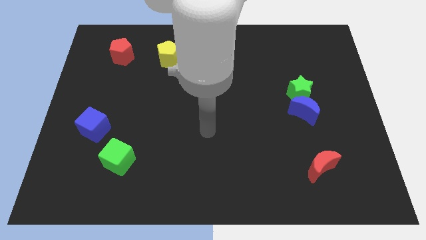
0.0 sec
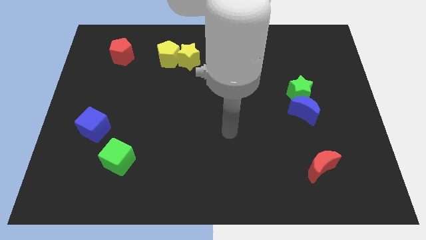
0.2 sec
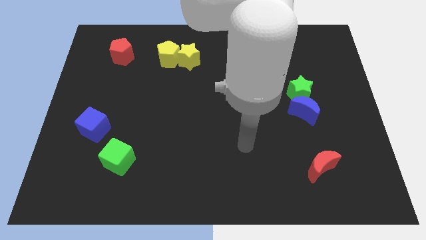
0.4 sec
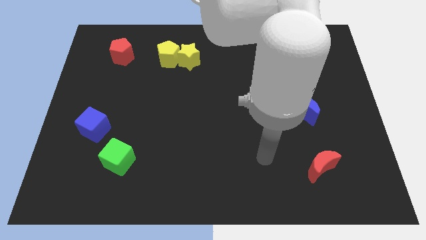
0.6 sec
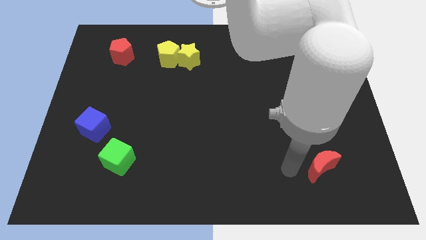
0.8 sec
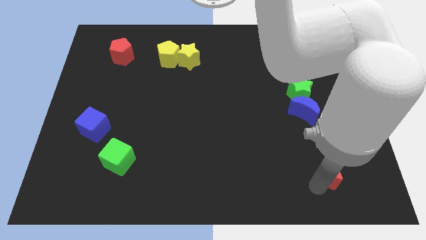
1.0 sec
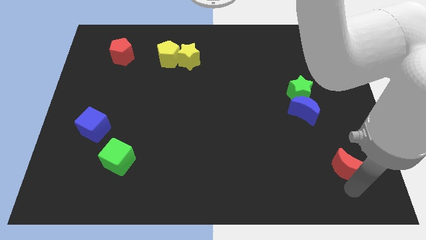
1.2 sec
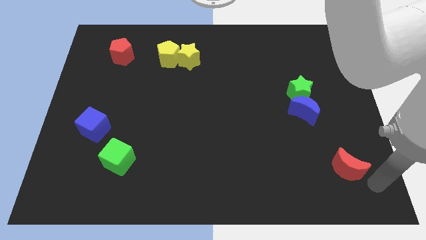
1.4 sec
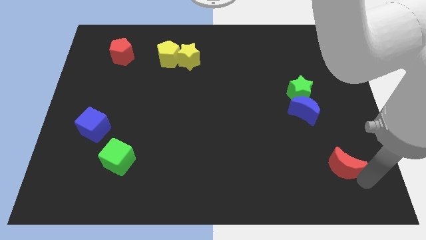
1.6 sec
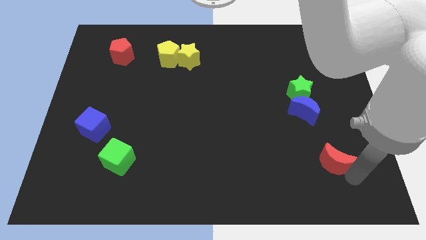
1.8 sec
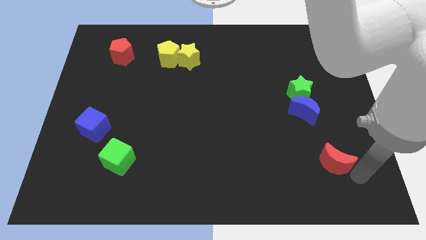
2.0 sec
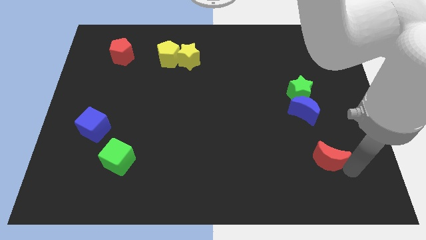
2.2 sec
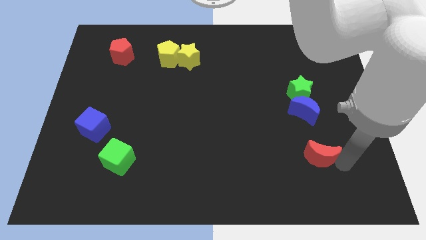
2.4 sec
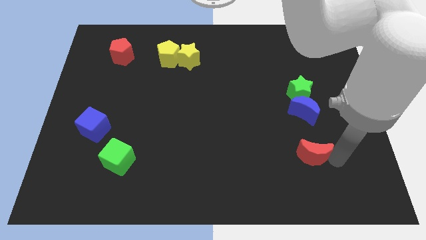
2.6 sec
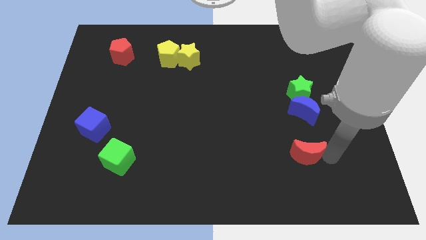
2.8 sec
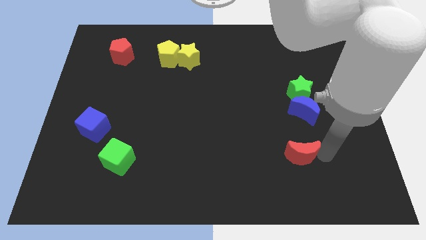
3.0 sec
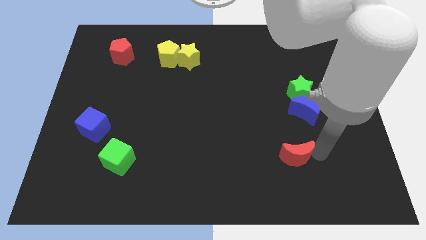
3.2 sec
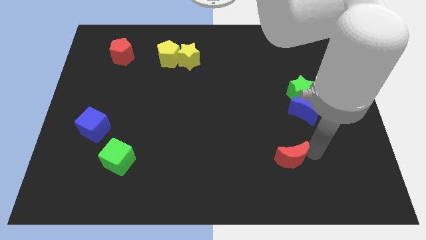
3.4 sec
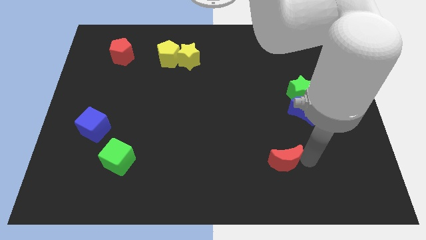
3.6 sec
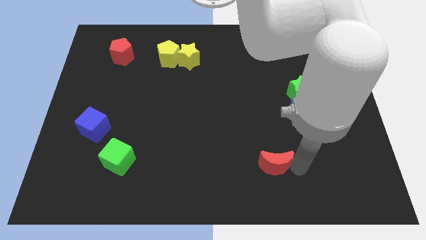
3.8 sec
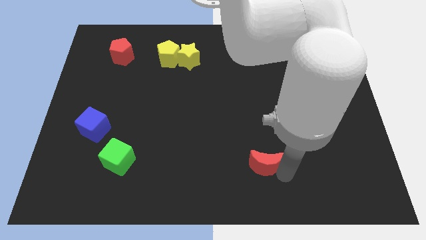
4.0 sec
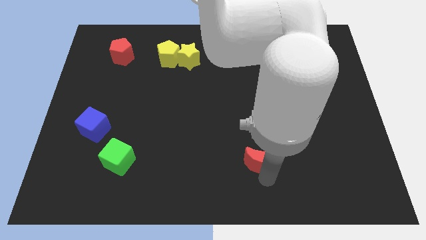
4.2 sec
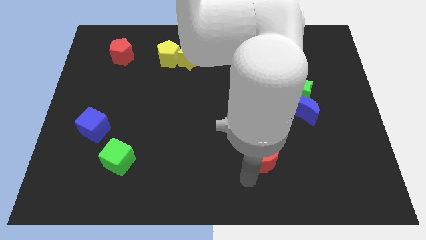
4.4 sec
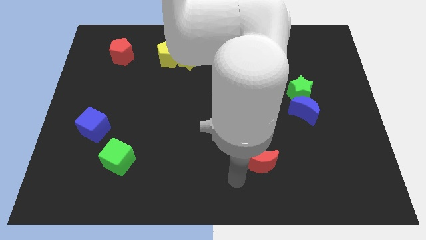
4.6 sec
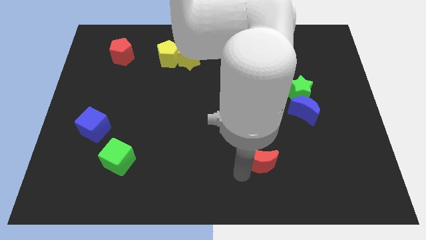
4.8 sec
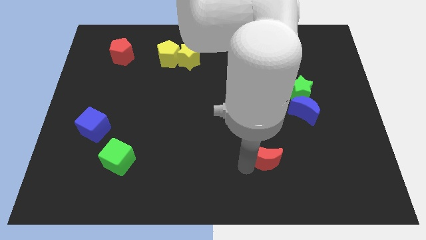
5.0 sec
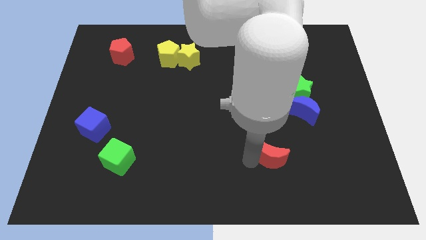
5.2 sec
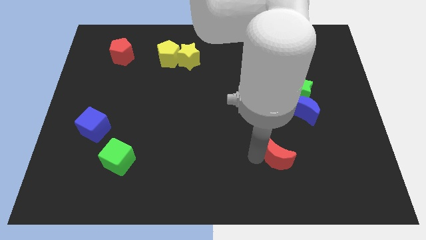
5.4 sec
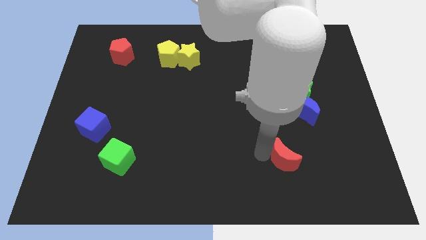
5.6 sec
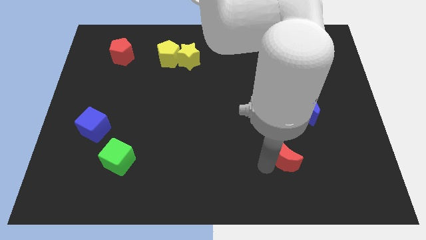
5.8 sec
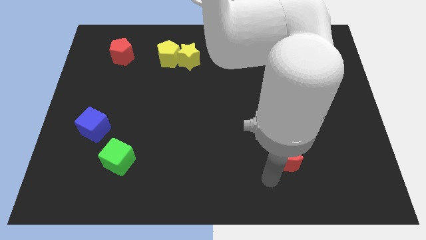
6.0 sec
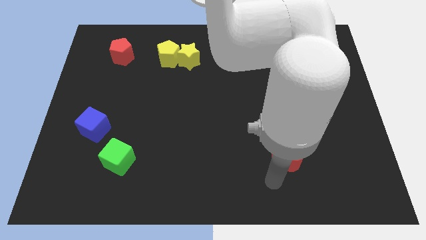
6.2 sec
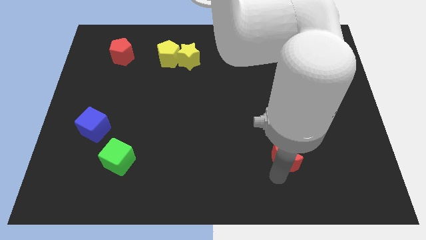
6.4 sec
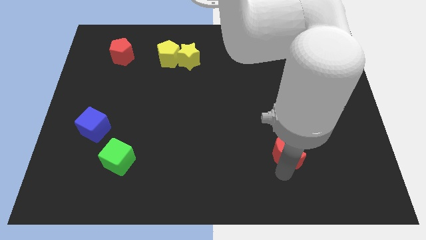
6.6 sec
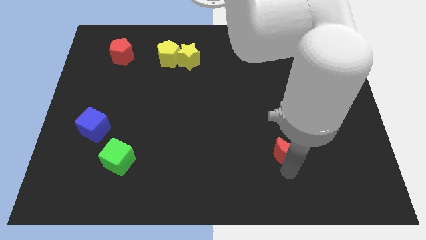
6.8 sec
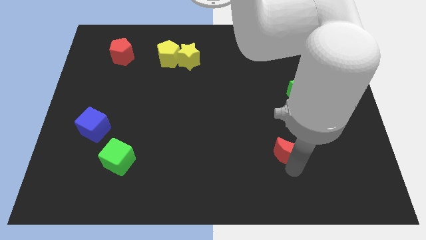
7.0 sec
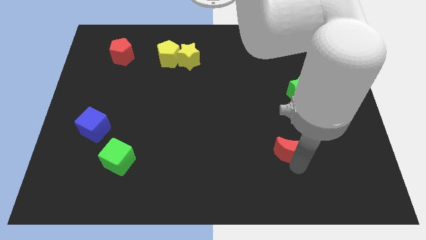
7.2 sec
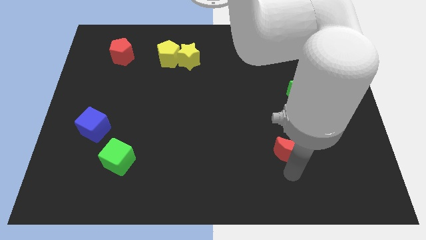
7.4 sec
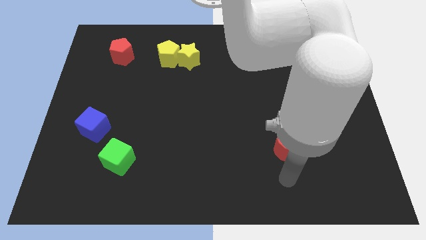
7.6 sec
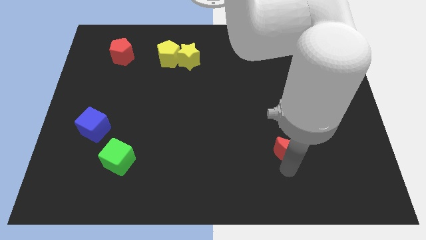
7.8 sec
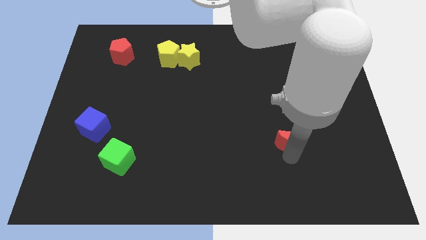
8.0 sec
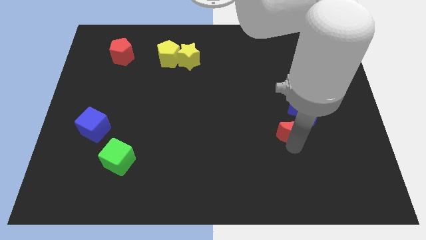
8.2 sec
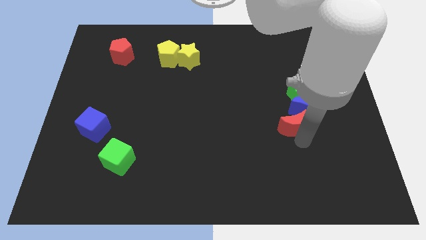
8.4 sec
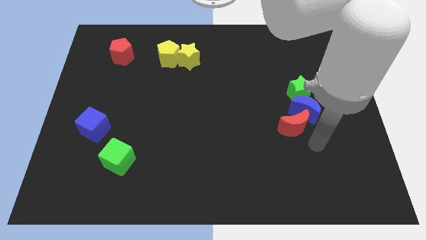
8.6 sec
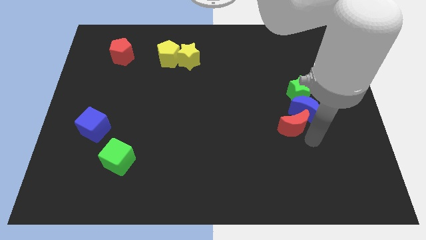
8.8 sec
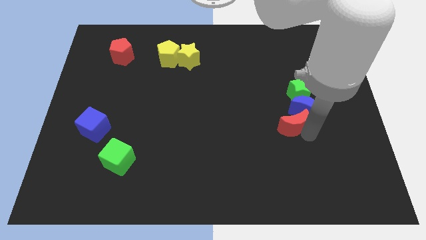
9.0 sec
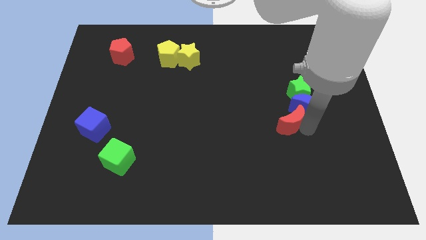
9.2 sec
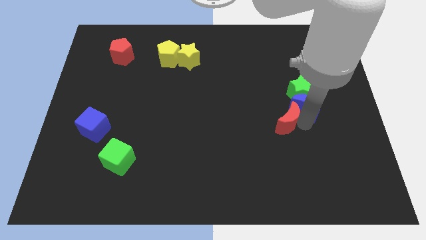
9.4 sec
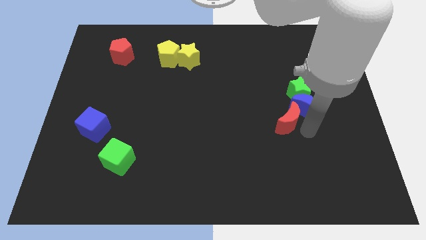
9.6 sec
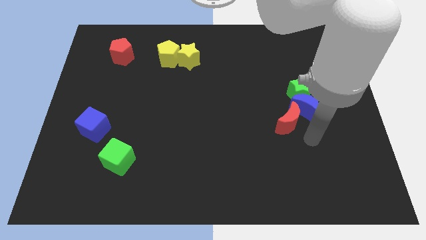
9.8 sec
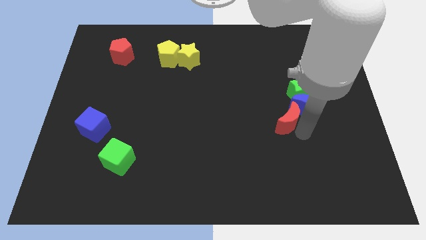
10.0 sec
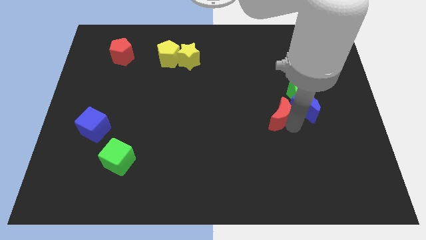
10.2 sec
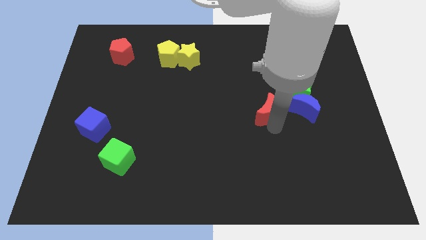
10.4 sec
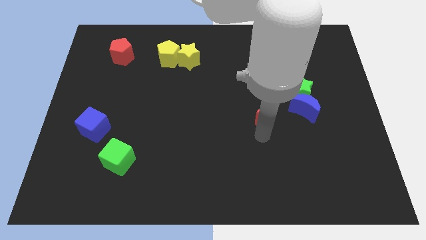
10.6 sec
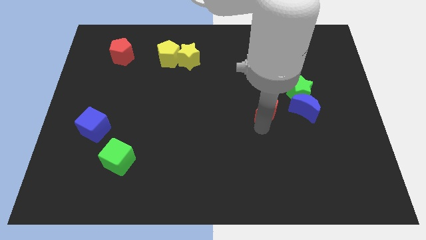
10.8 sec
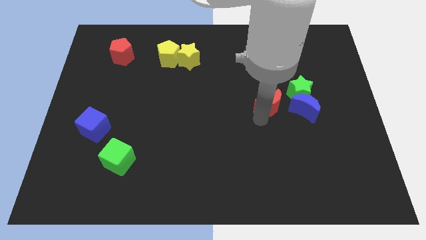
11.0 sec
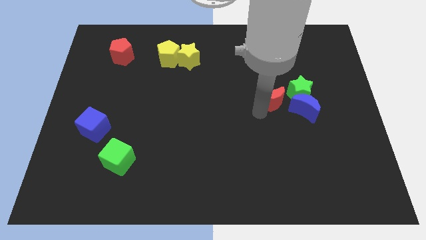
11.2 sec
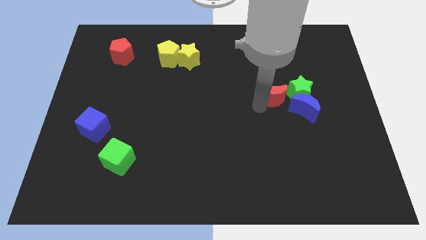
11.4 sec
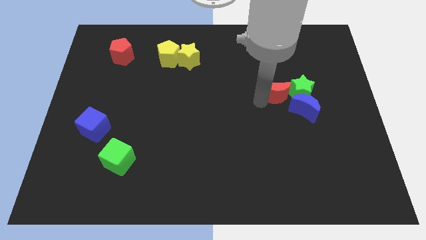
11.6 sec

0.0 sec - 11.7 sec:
slide the red moon to the top left side of the green star

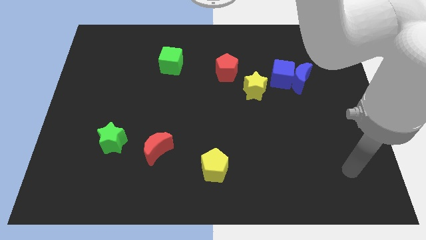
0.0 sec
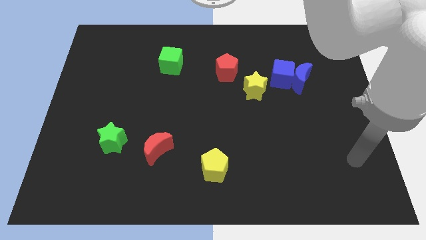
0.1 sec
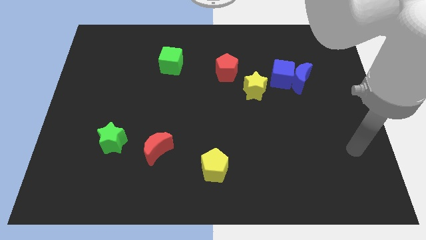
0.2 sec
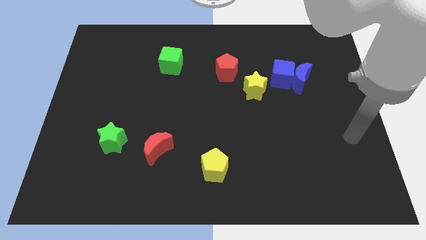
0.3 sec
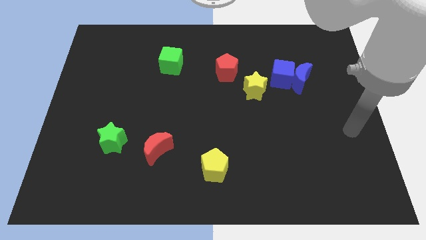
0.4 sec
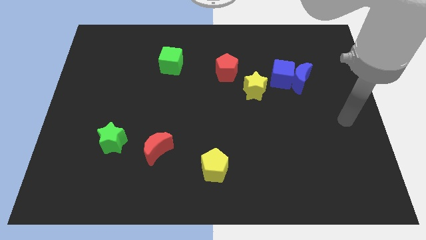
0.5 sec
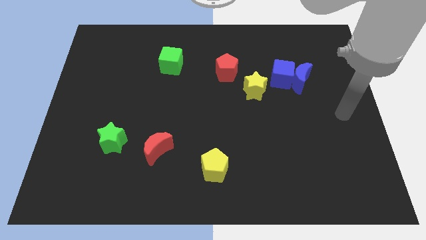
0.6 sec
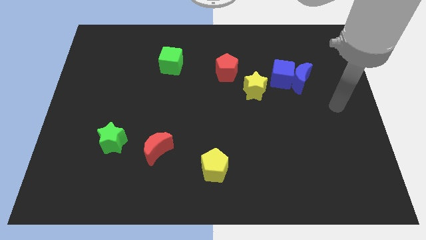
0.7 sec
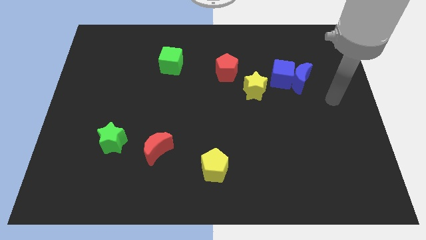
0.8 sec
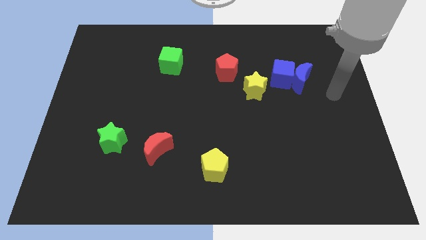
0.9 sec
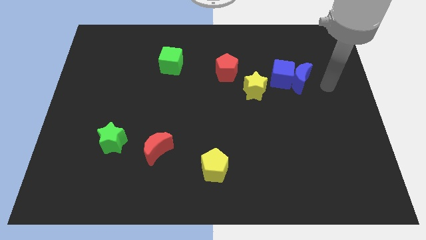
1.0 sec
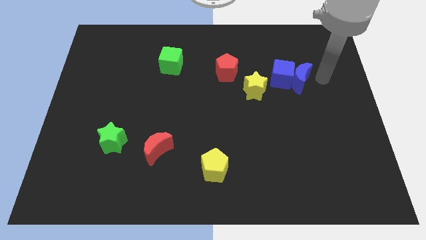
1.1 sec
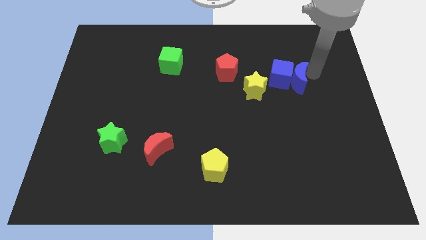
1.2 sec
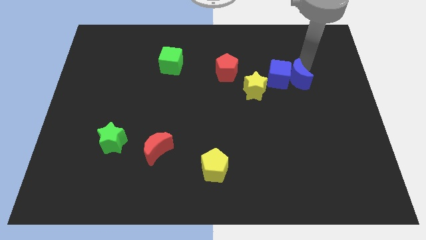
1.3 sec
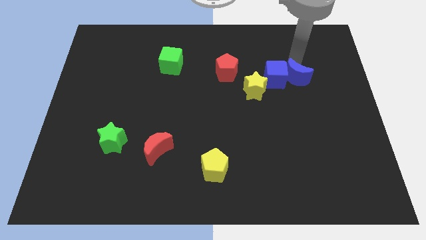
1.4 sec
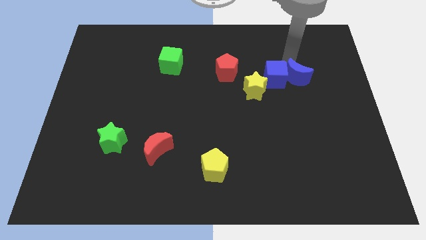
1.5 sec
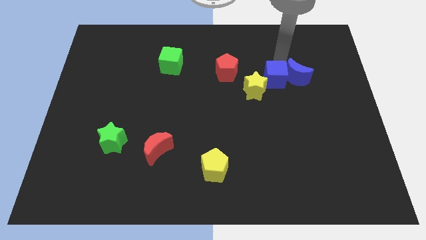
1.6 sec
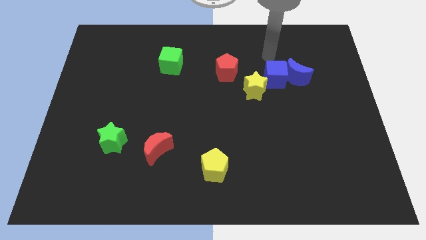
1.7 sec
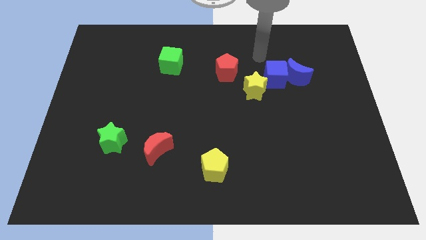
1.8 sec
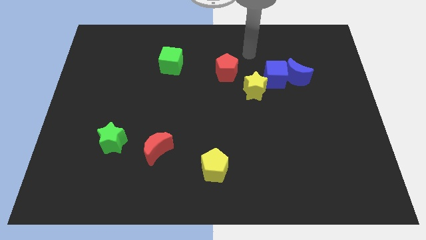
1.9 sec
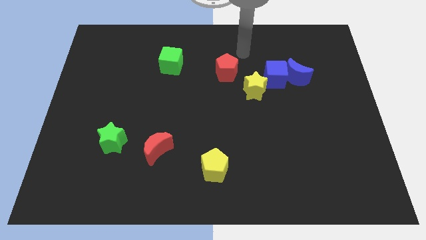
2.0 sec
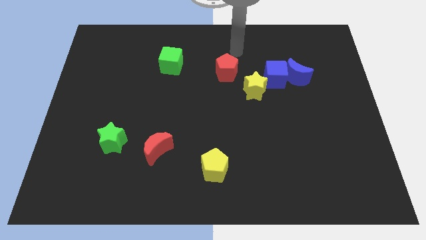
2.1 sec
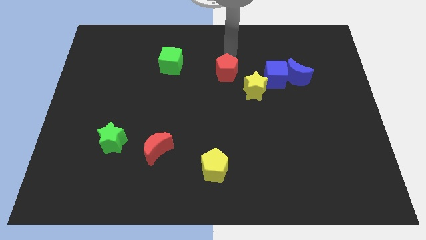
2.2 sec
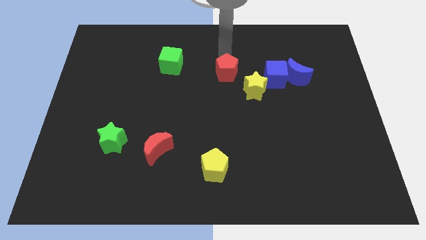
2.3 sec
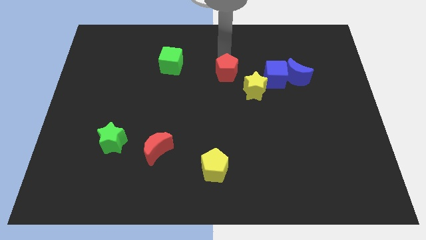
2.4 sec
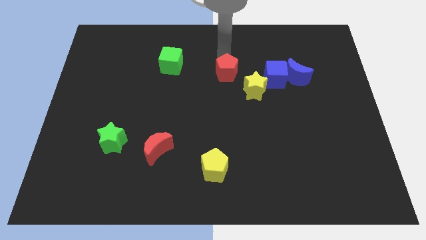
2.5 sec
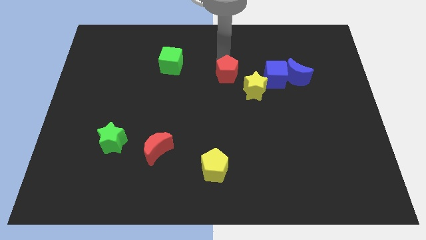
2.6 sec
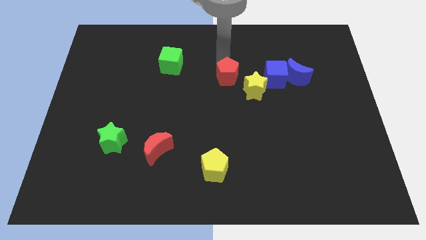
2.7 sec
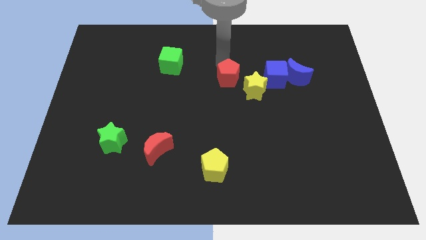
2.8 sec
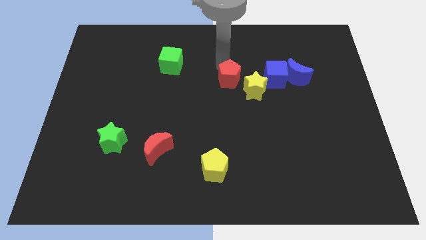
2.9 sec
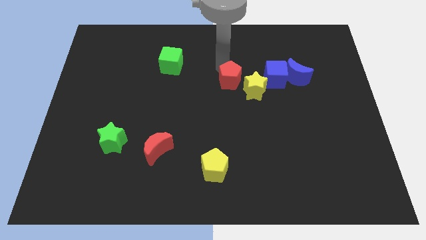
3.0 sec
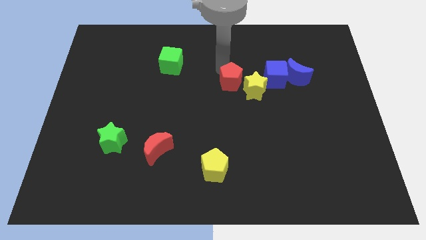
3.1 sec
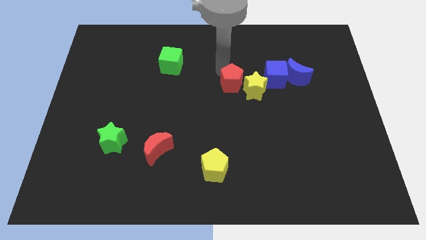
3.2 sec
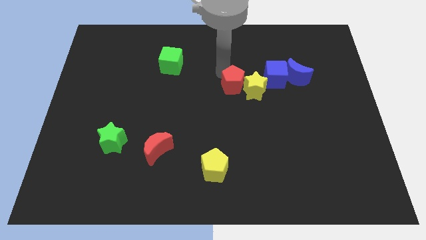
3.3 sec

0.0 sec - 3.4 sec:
put the red pentagon to the bottom left side of the yellow star
